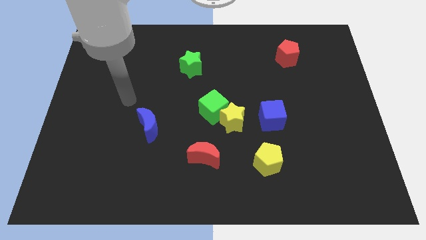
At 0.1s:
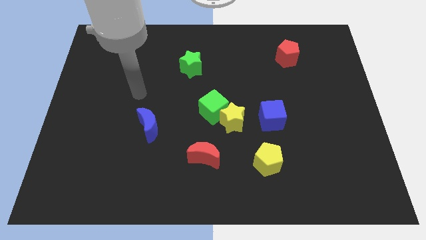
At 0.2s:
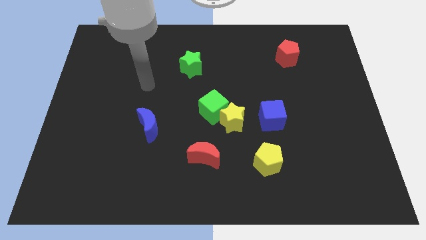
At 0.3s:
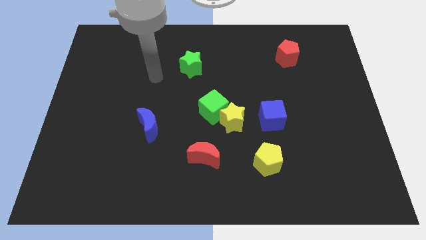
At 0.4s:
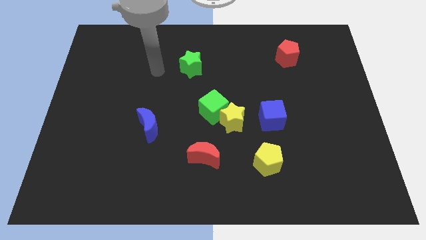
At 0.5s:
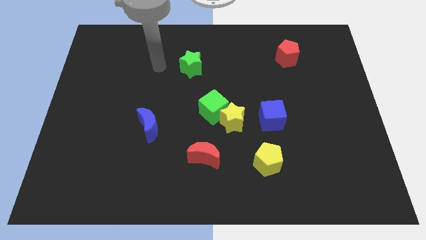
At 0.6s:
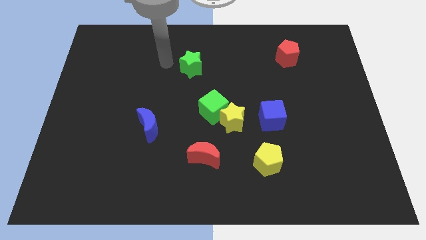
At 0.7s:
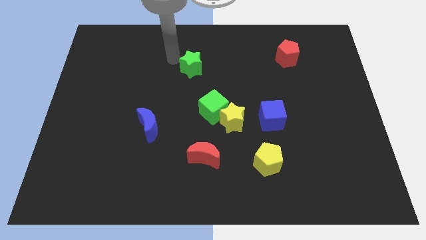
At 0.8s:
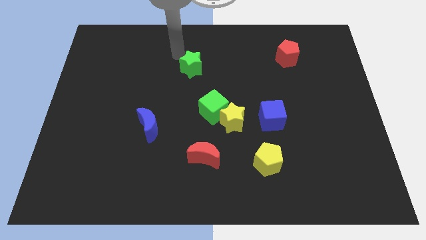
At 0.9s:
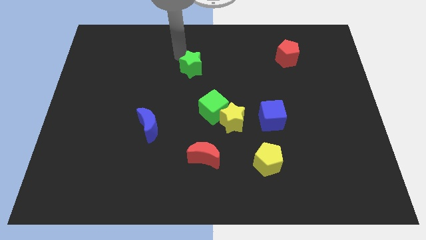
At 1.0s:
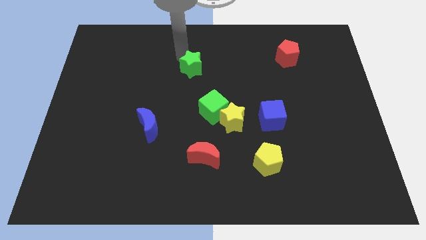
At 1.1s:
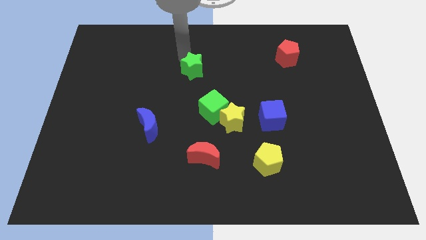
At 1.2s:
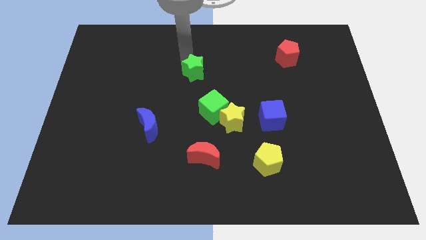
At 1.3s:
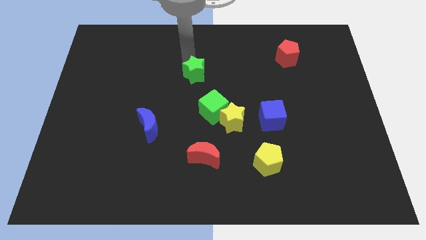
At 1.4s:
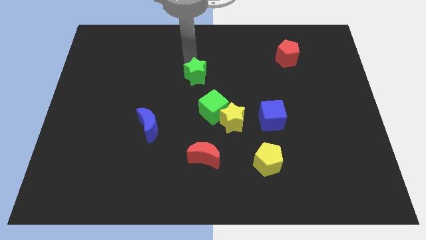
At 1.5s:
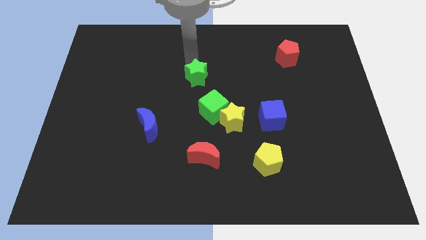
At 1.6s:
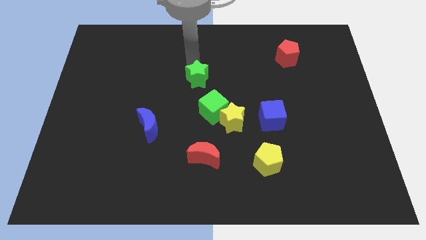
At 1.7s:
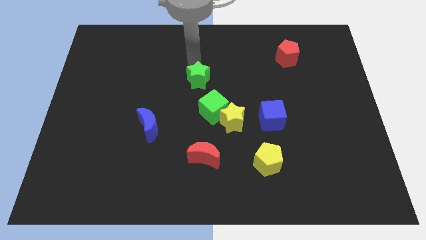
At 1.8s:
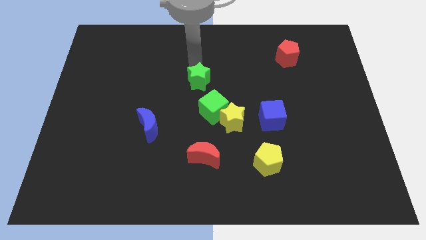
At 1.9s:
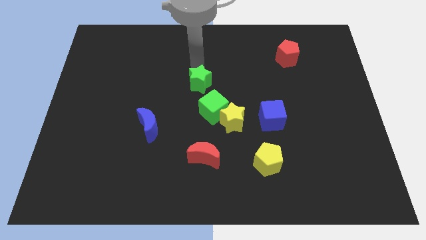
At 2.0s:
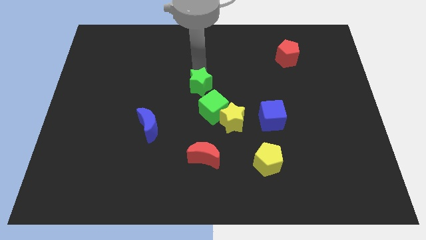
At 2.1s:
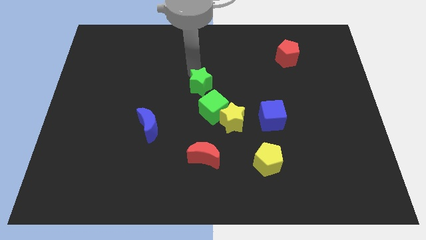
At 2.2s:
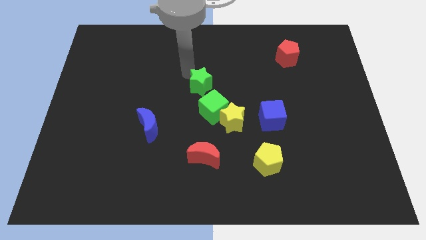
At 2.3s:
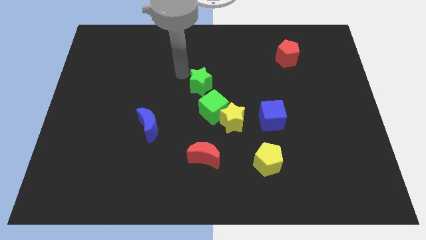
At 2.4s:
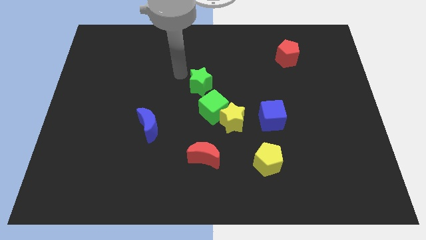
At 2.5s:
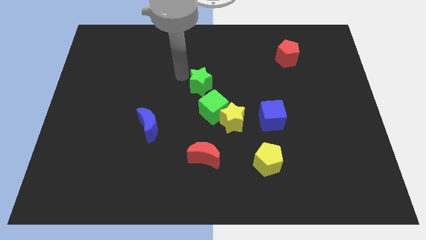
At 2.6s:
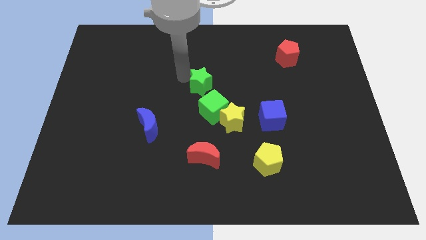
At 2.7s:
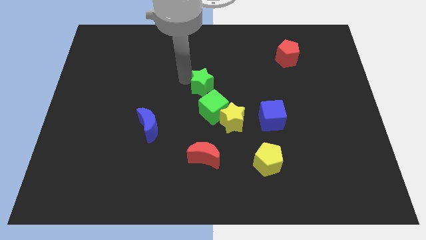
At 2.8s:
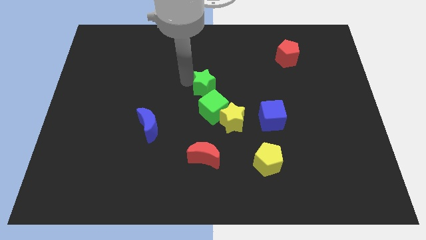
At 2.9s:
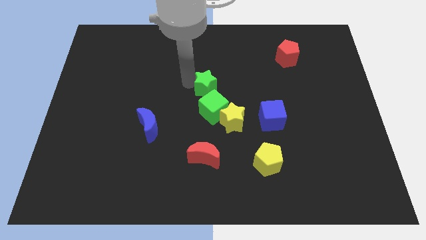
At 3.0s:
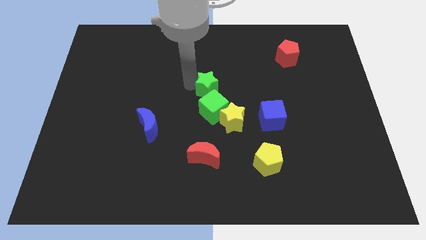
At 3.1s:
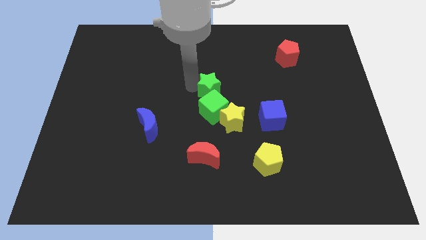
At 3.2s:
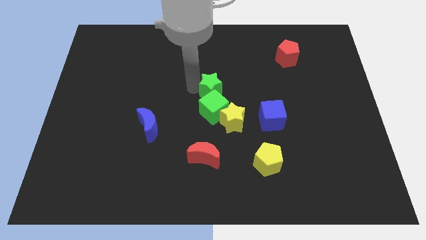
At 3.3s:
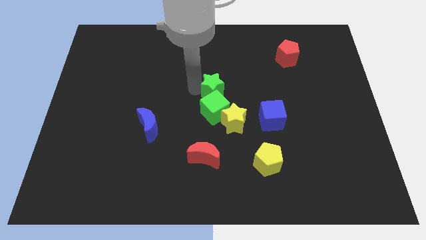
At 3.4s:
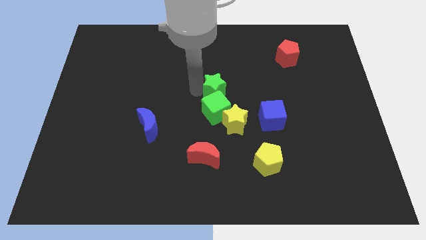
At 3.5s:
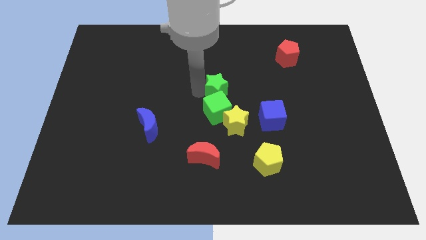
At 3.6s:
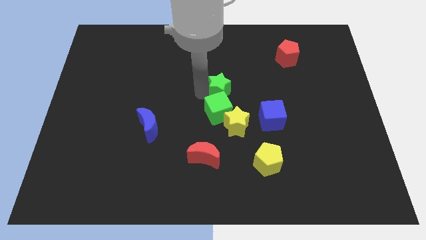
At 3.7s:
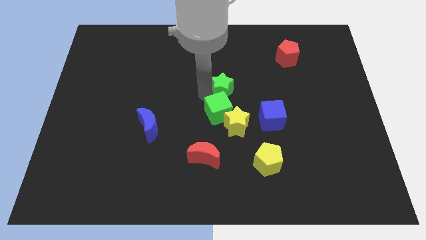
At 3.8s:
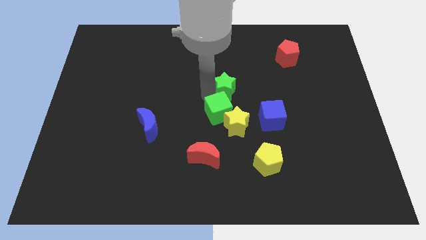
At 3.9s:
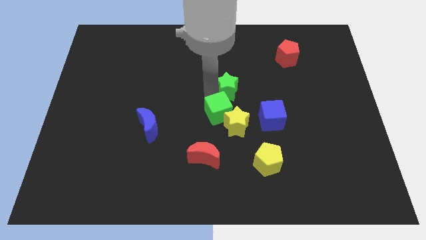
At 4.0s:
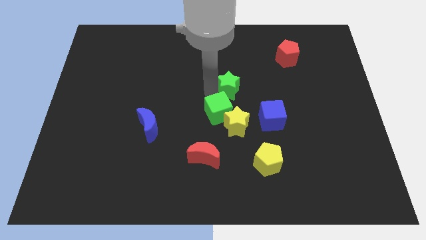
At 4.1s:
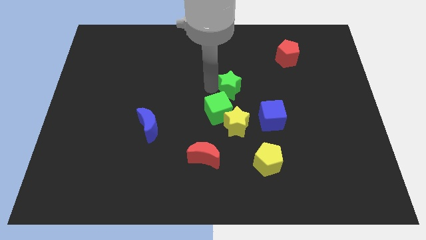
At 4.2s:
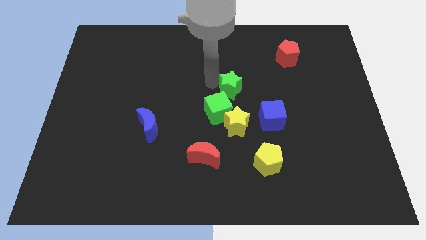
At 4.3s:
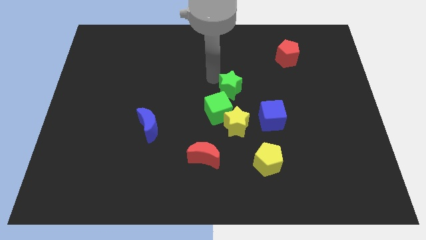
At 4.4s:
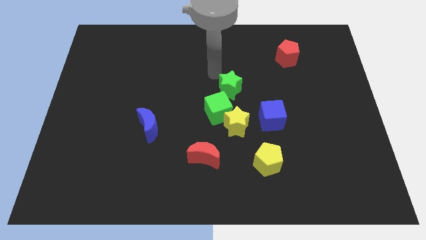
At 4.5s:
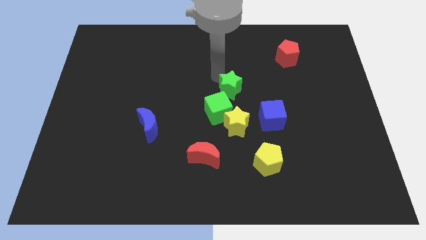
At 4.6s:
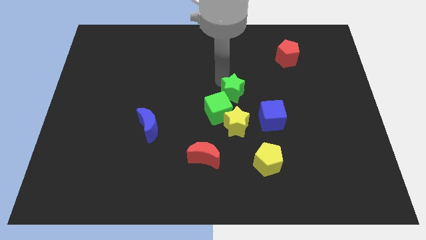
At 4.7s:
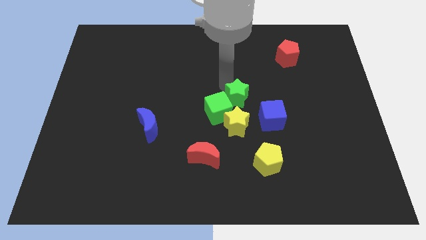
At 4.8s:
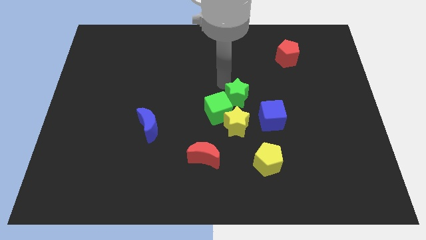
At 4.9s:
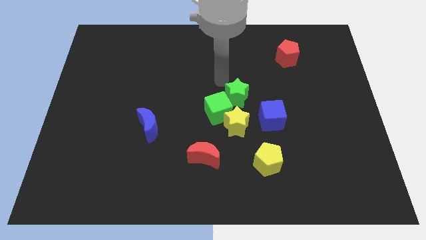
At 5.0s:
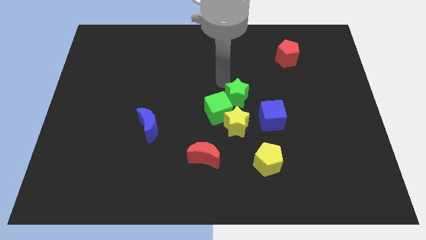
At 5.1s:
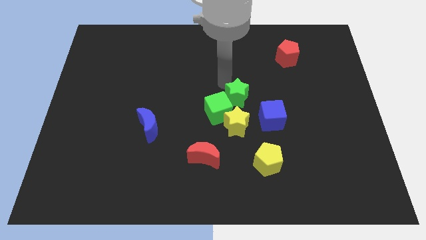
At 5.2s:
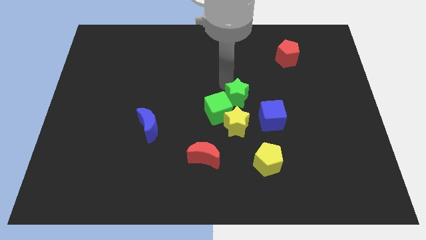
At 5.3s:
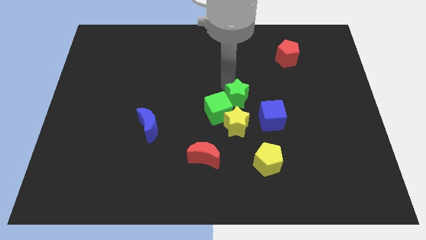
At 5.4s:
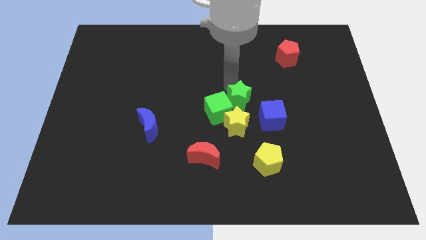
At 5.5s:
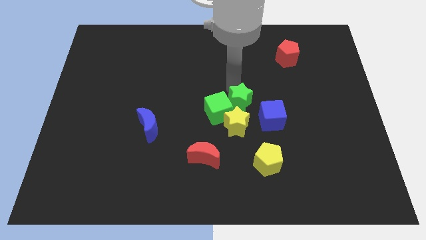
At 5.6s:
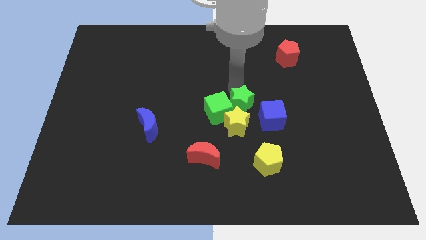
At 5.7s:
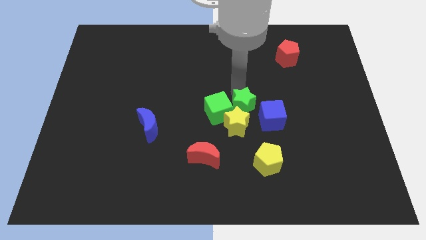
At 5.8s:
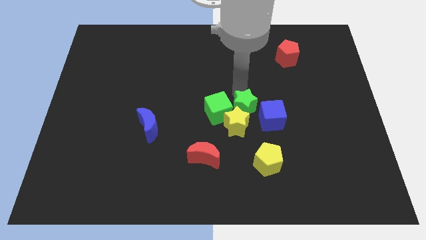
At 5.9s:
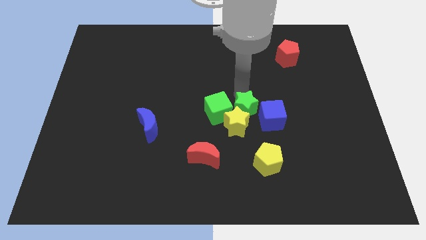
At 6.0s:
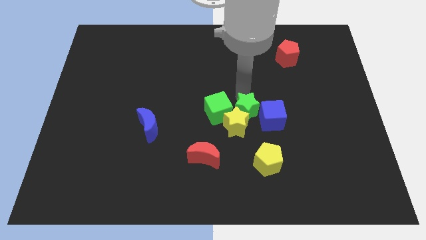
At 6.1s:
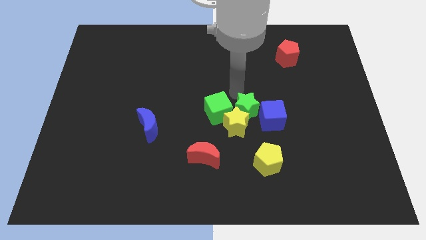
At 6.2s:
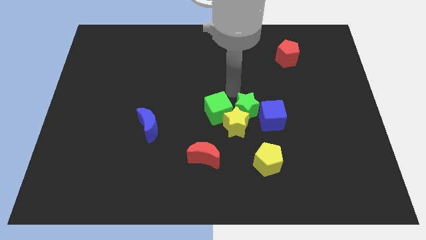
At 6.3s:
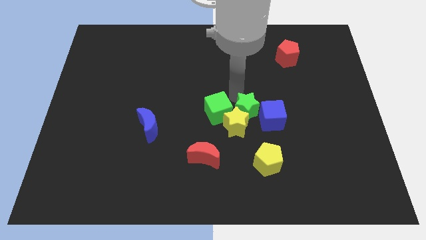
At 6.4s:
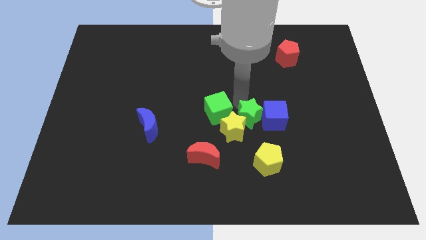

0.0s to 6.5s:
push the green star down and to the right

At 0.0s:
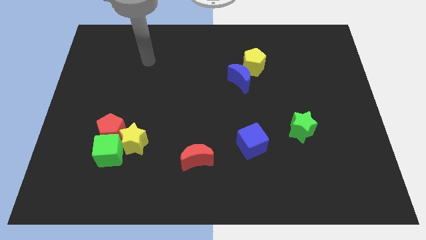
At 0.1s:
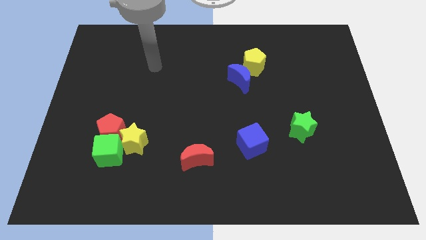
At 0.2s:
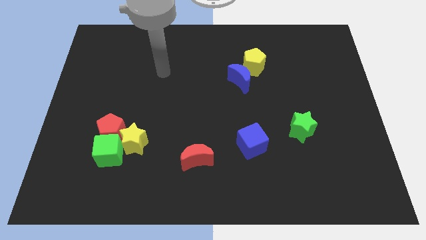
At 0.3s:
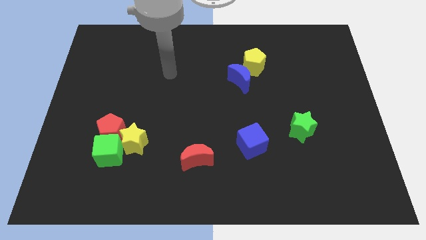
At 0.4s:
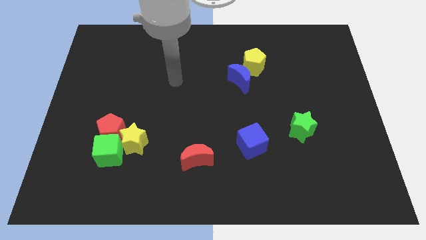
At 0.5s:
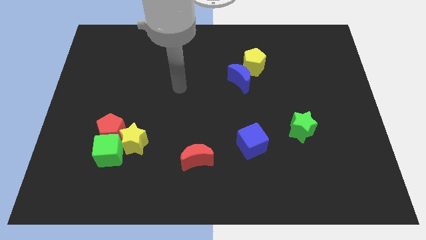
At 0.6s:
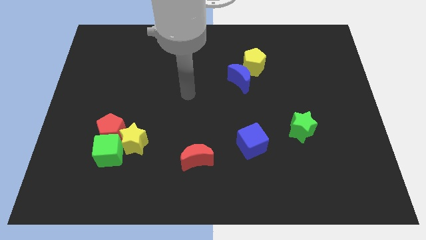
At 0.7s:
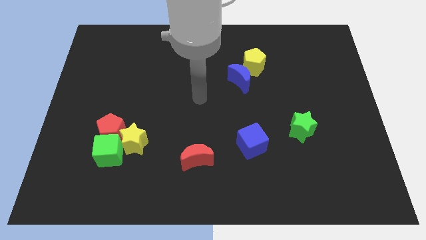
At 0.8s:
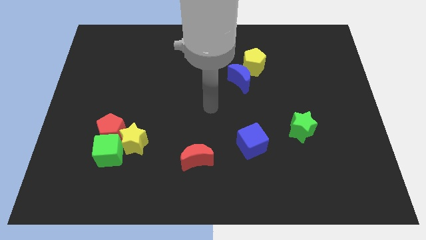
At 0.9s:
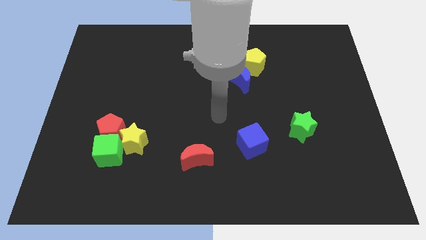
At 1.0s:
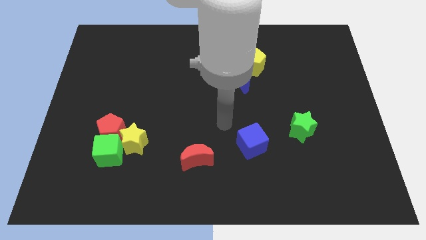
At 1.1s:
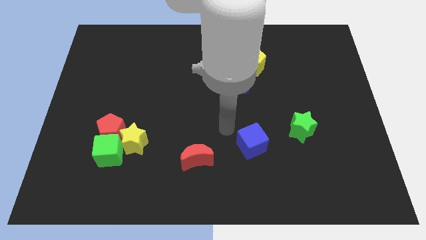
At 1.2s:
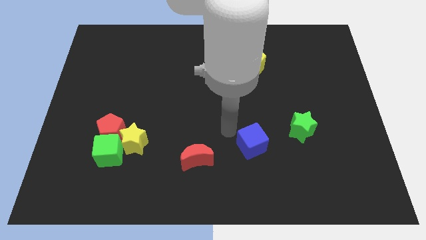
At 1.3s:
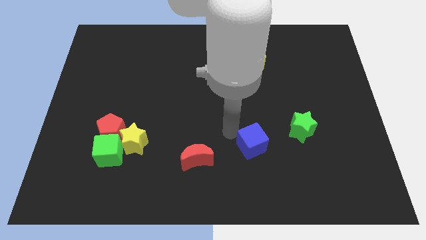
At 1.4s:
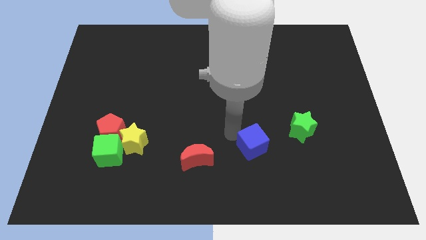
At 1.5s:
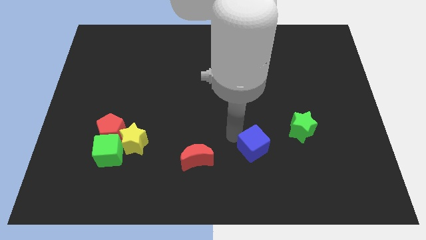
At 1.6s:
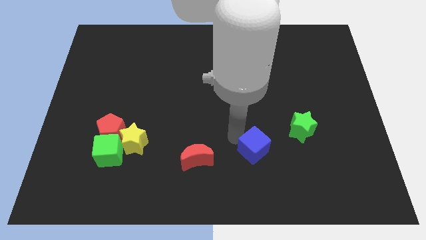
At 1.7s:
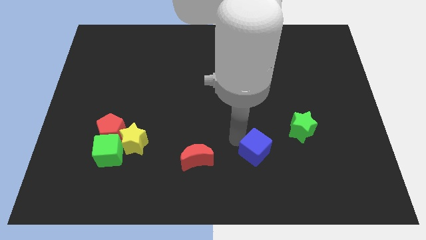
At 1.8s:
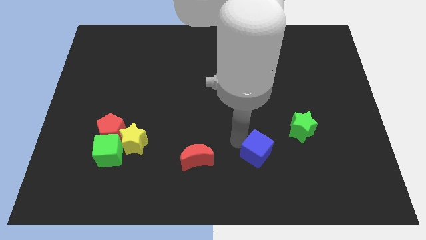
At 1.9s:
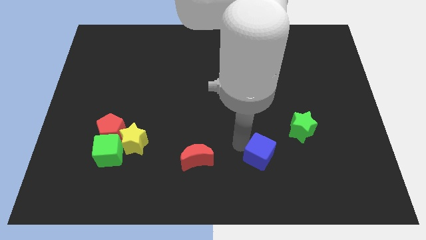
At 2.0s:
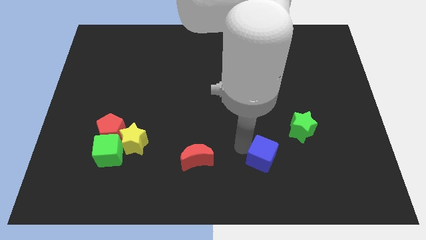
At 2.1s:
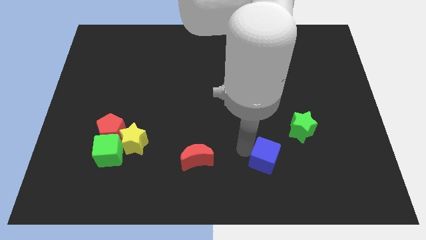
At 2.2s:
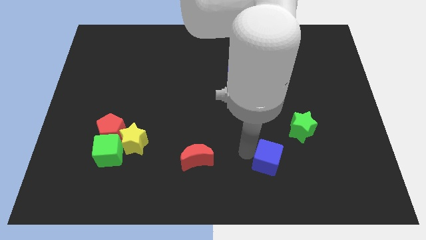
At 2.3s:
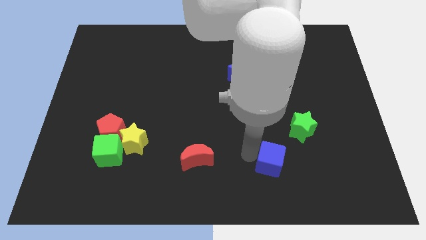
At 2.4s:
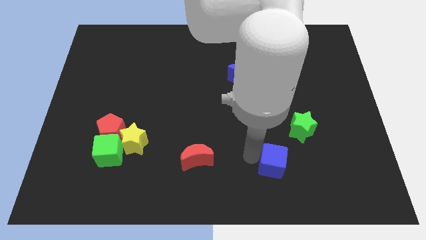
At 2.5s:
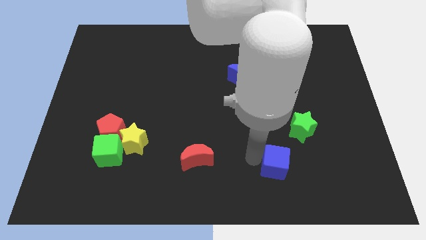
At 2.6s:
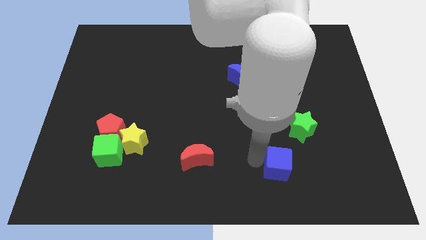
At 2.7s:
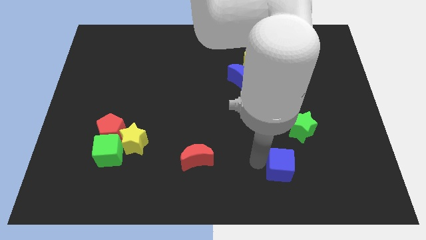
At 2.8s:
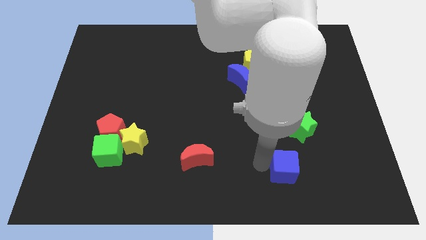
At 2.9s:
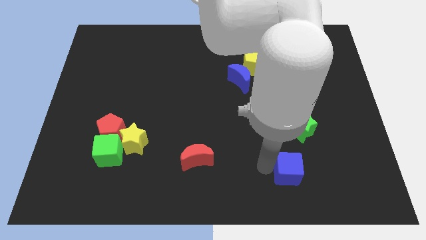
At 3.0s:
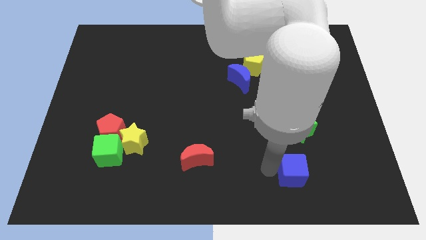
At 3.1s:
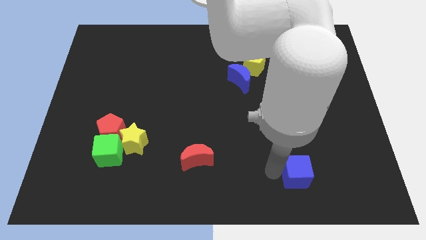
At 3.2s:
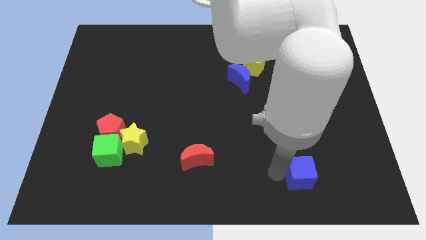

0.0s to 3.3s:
push the blue cube to the right a little
